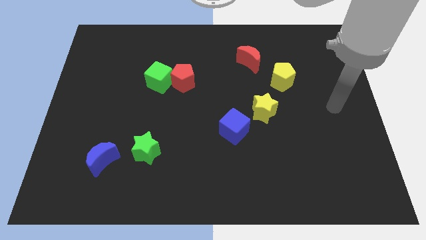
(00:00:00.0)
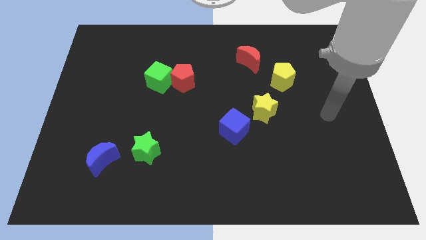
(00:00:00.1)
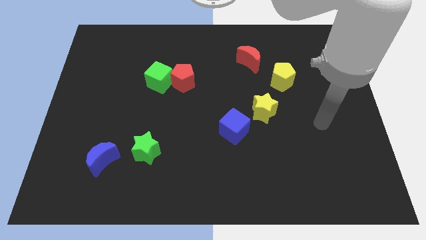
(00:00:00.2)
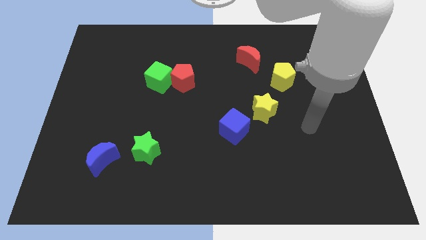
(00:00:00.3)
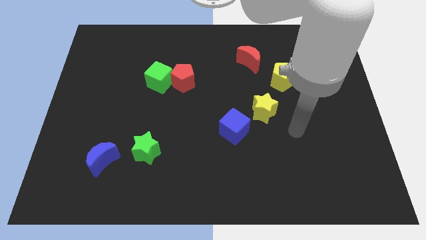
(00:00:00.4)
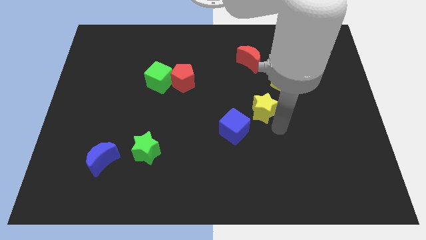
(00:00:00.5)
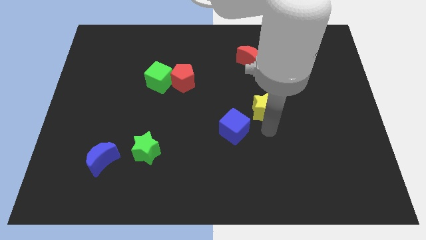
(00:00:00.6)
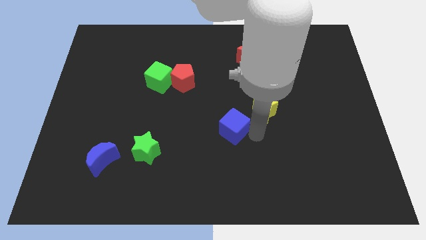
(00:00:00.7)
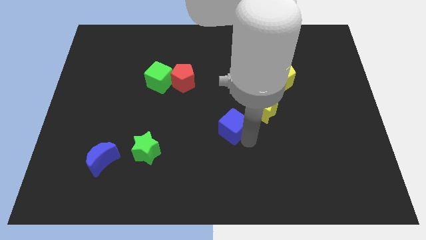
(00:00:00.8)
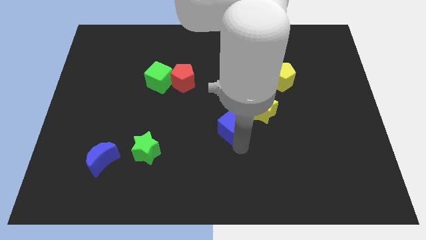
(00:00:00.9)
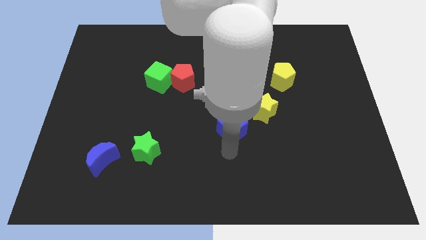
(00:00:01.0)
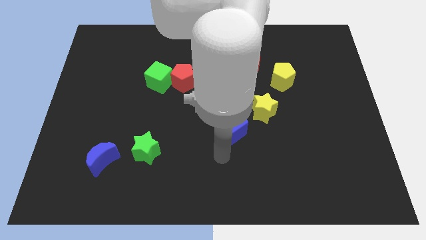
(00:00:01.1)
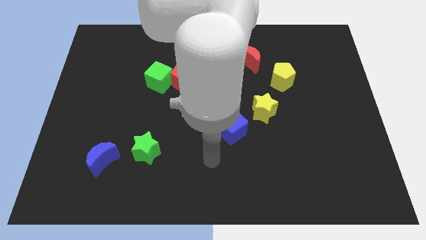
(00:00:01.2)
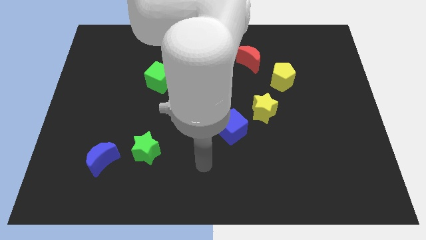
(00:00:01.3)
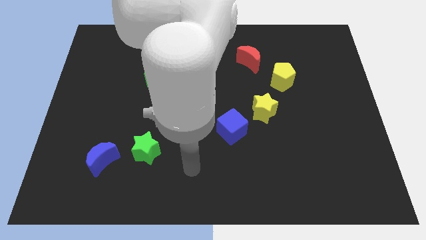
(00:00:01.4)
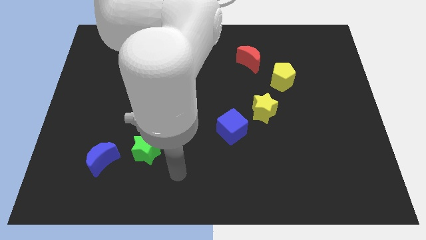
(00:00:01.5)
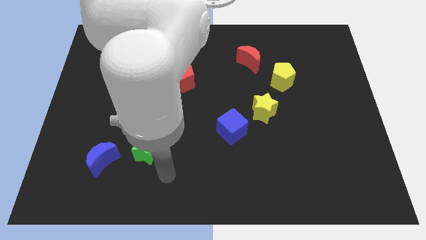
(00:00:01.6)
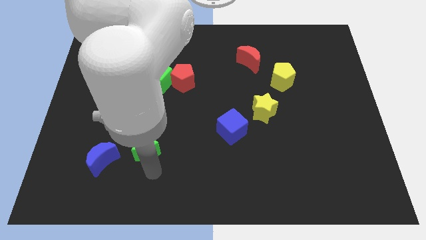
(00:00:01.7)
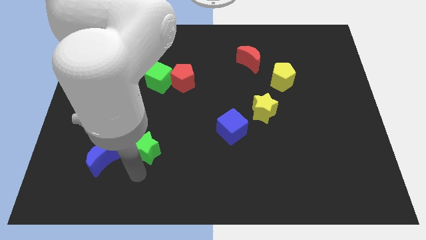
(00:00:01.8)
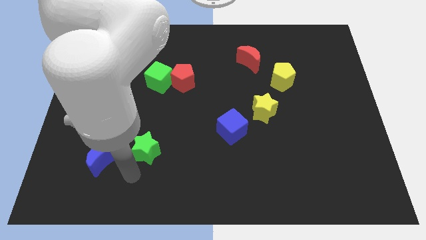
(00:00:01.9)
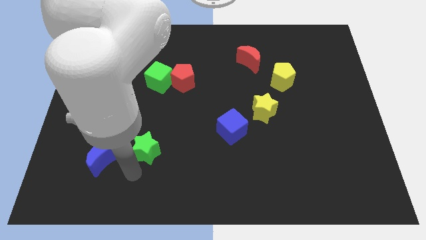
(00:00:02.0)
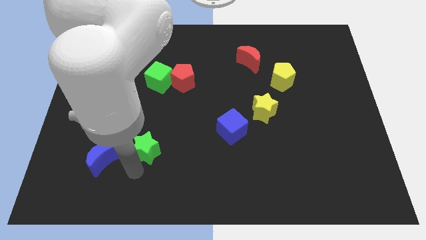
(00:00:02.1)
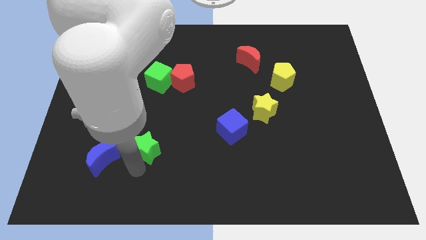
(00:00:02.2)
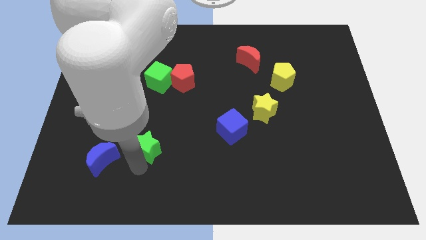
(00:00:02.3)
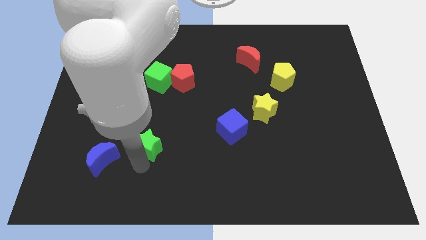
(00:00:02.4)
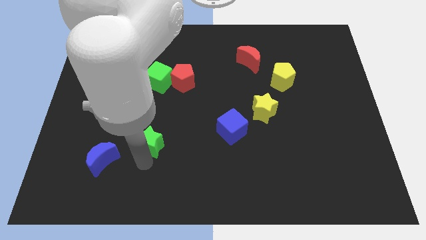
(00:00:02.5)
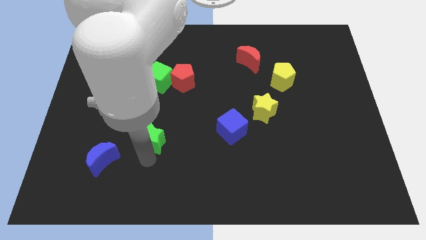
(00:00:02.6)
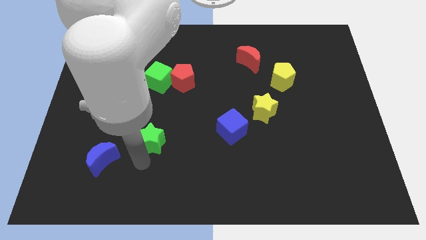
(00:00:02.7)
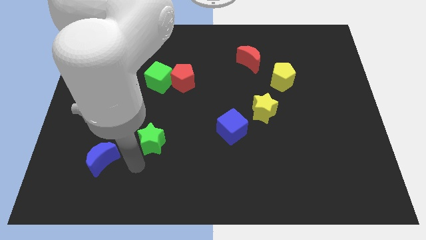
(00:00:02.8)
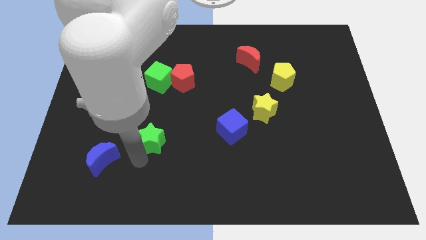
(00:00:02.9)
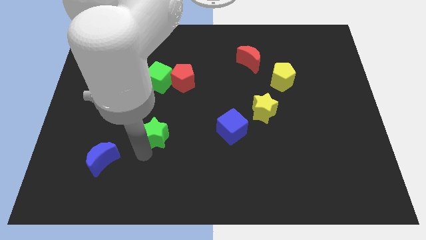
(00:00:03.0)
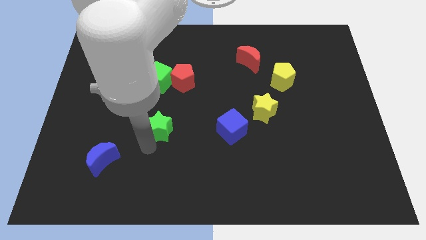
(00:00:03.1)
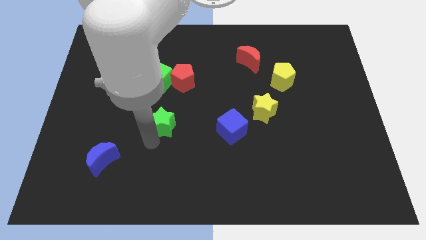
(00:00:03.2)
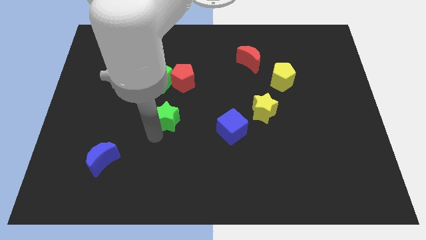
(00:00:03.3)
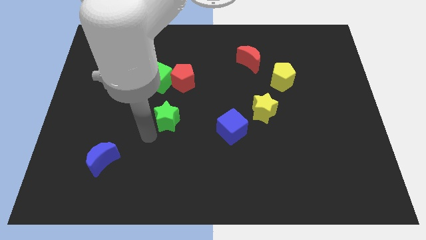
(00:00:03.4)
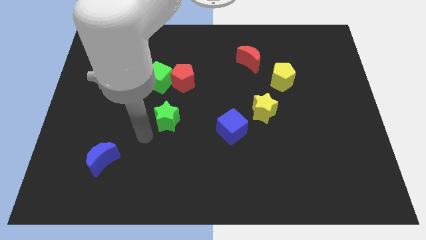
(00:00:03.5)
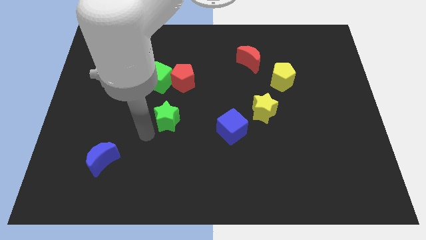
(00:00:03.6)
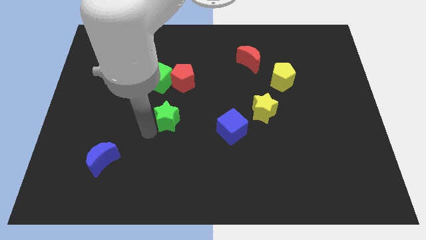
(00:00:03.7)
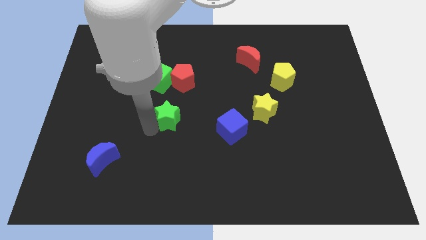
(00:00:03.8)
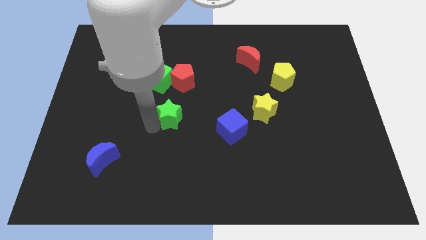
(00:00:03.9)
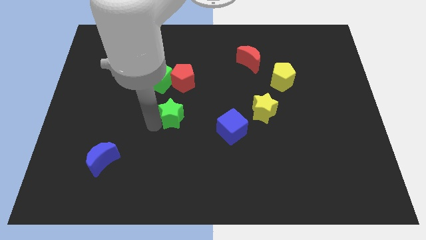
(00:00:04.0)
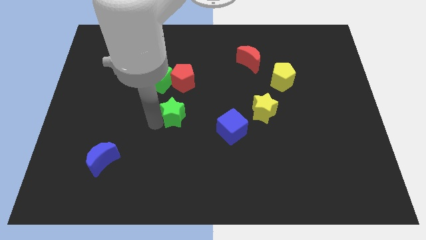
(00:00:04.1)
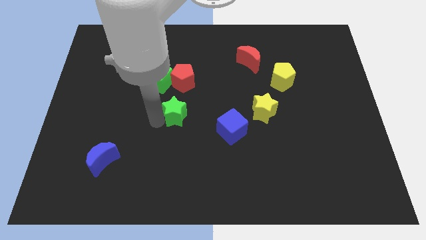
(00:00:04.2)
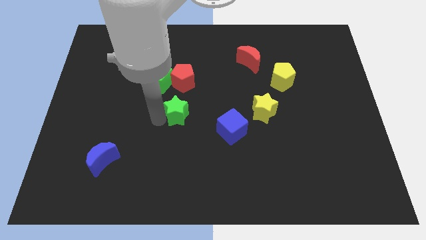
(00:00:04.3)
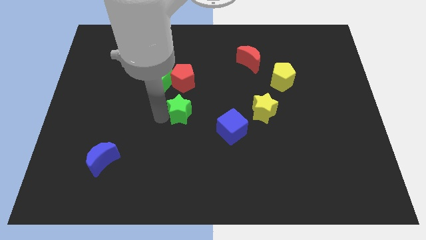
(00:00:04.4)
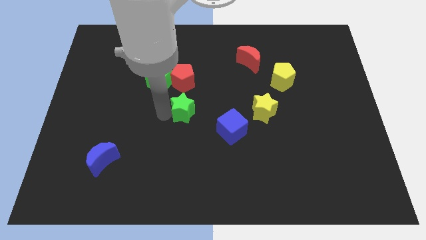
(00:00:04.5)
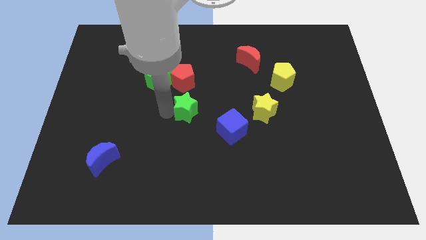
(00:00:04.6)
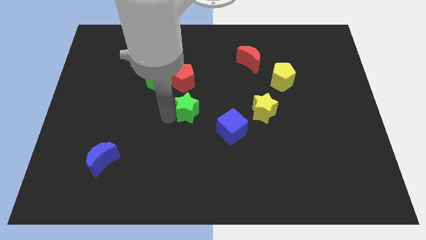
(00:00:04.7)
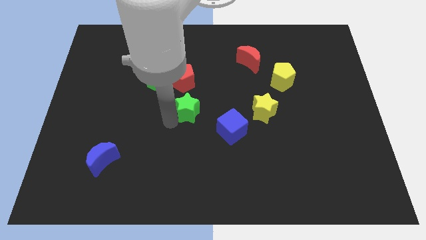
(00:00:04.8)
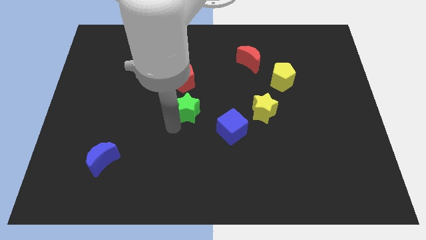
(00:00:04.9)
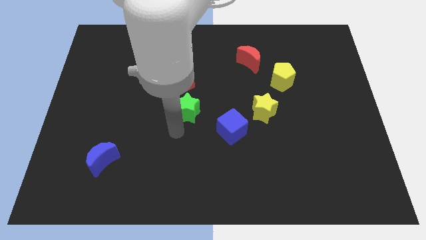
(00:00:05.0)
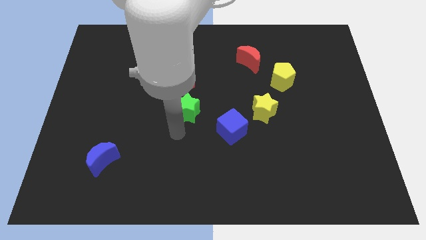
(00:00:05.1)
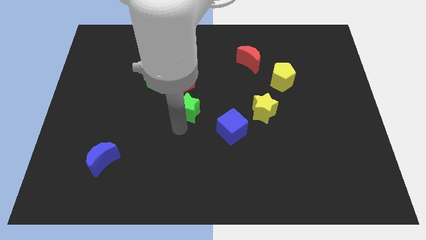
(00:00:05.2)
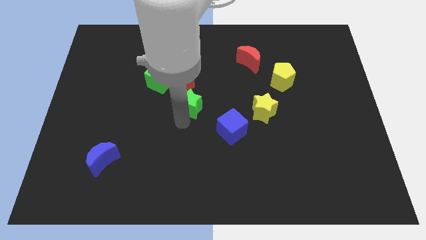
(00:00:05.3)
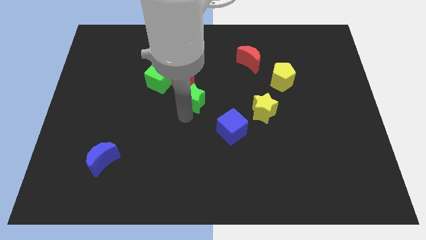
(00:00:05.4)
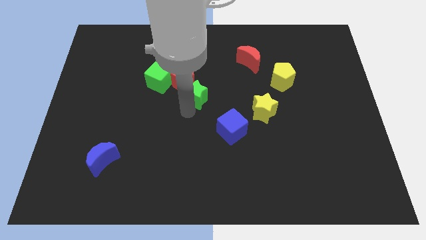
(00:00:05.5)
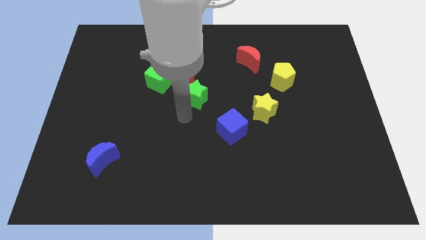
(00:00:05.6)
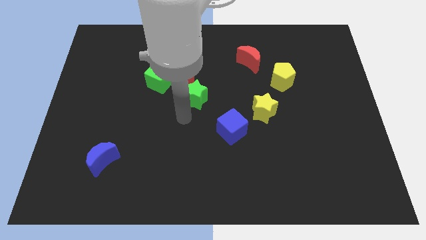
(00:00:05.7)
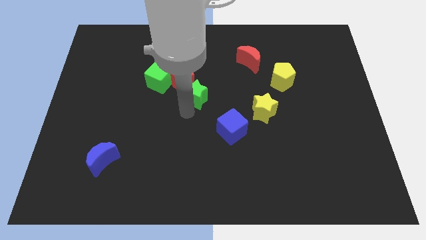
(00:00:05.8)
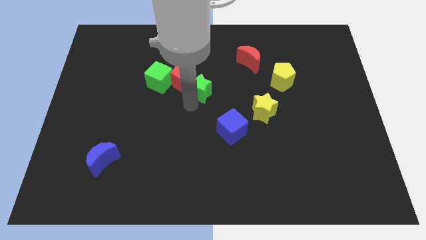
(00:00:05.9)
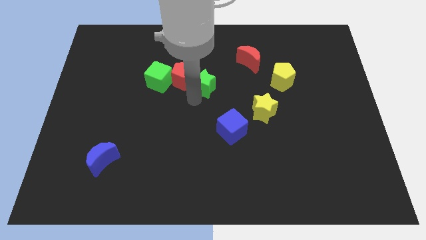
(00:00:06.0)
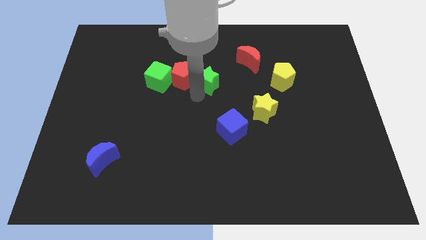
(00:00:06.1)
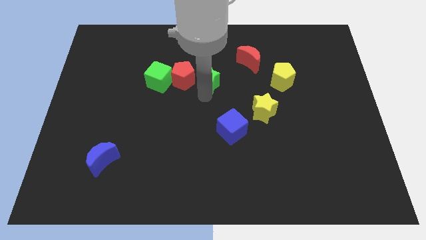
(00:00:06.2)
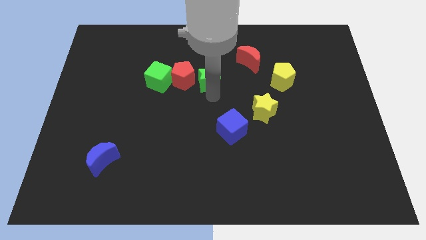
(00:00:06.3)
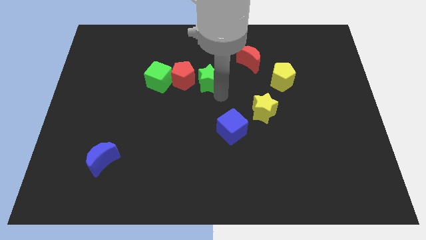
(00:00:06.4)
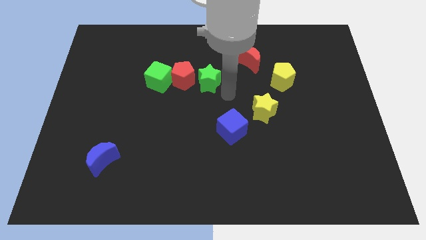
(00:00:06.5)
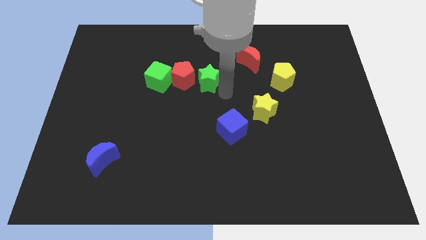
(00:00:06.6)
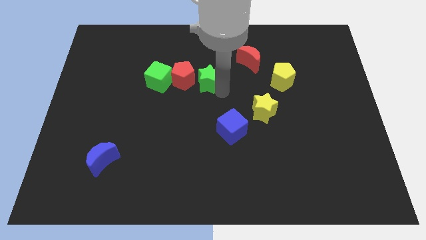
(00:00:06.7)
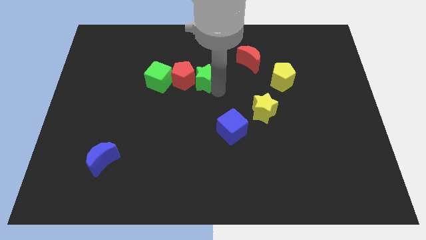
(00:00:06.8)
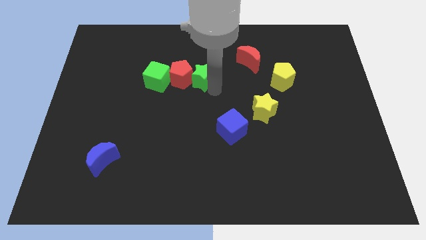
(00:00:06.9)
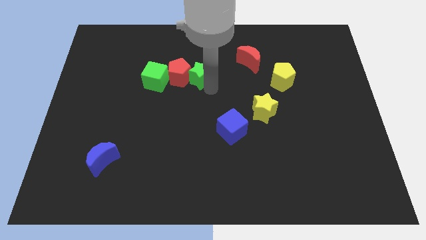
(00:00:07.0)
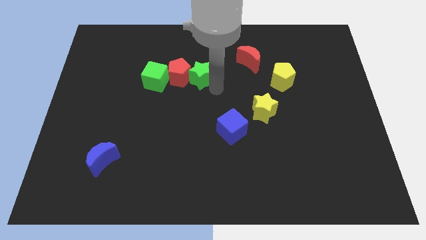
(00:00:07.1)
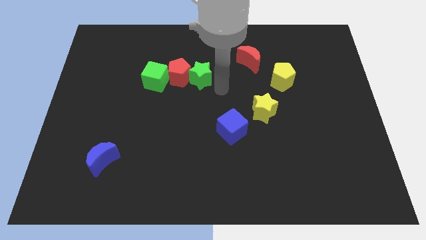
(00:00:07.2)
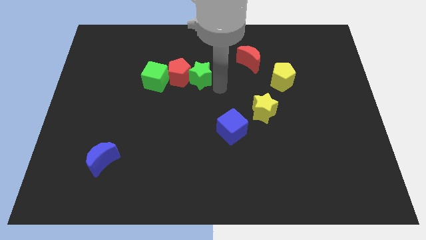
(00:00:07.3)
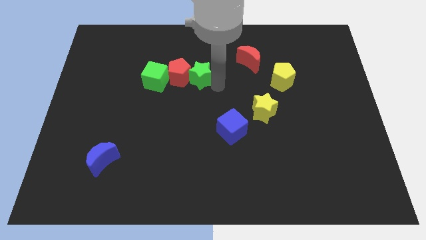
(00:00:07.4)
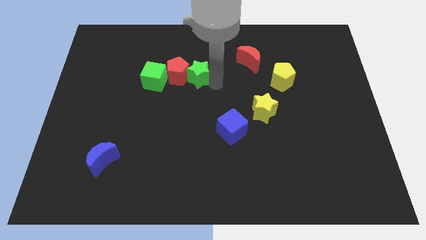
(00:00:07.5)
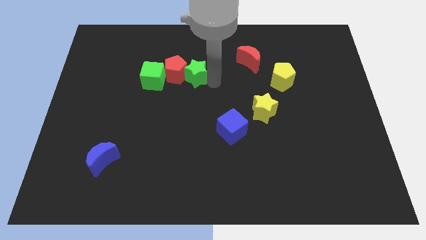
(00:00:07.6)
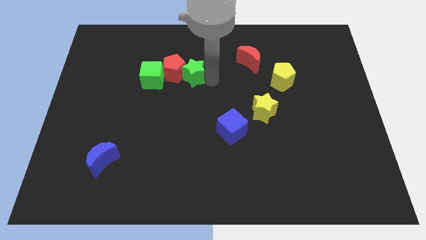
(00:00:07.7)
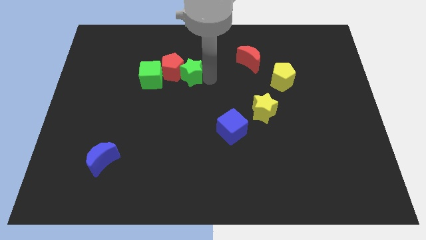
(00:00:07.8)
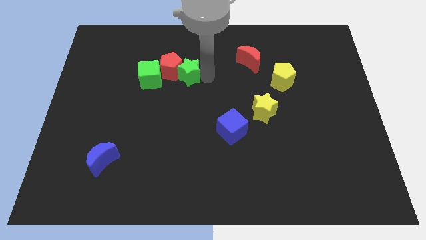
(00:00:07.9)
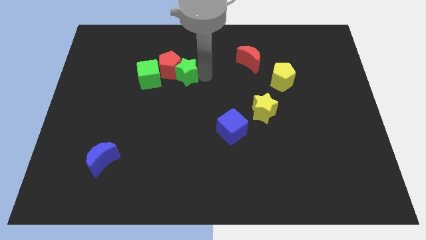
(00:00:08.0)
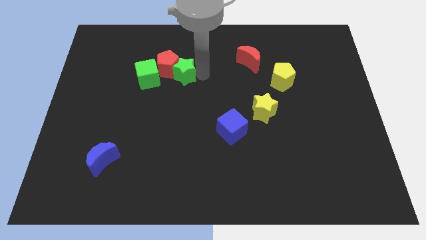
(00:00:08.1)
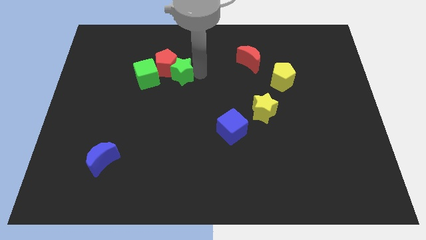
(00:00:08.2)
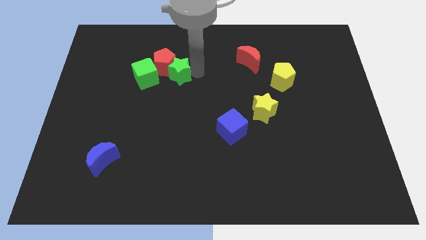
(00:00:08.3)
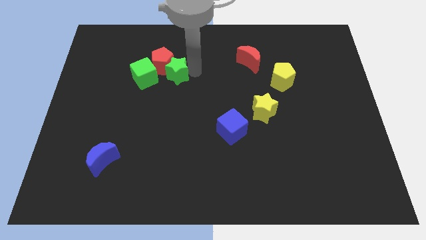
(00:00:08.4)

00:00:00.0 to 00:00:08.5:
push the green star diagonally up and to the right of the green cube
